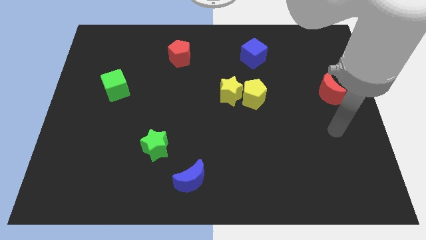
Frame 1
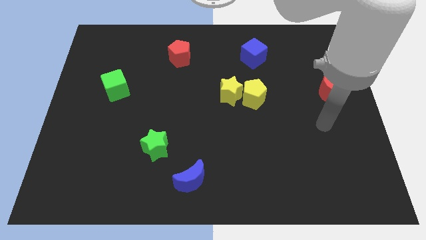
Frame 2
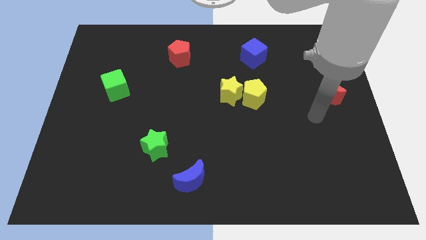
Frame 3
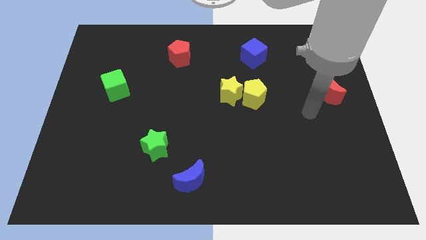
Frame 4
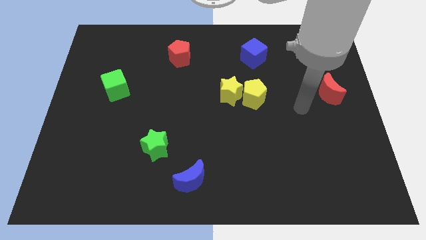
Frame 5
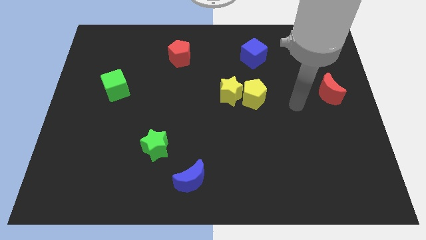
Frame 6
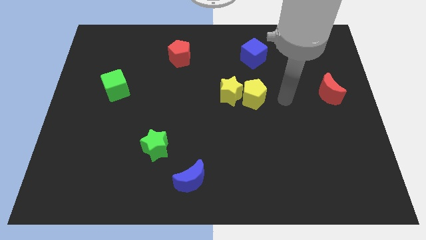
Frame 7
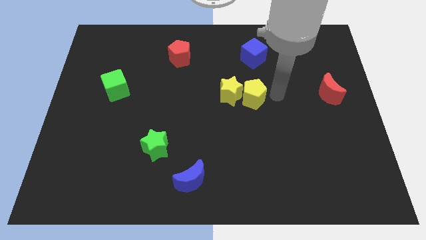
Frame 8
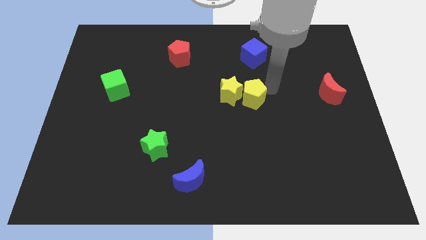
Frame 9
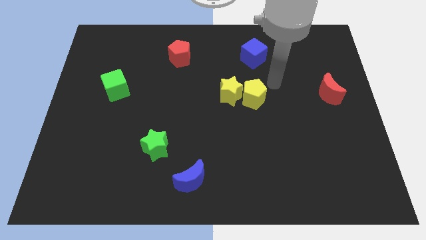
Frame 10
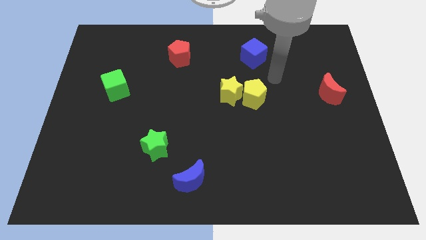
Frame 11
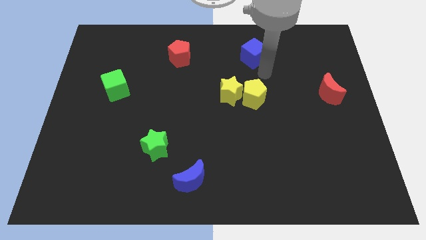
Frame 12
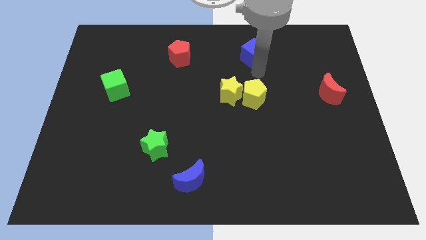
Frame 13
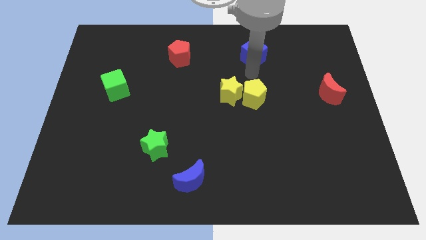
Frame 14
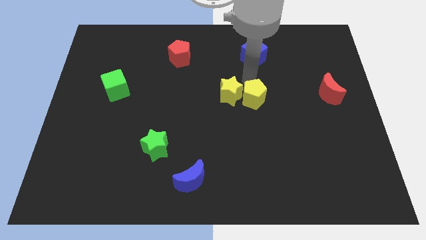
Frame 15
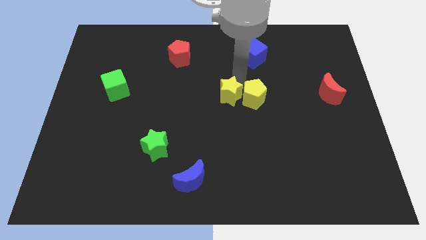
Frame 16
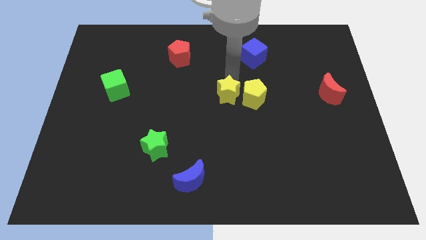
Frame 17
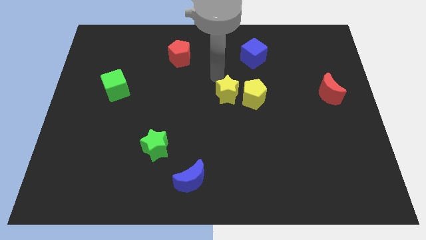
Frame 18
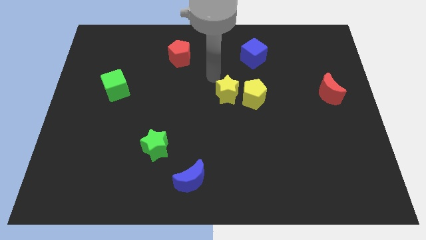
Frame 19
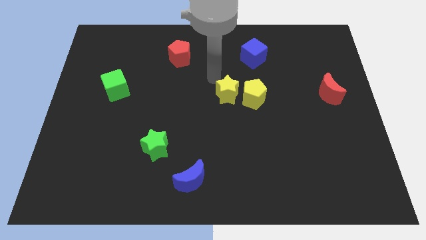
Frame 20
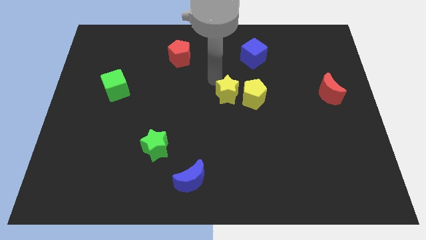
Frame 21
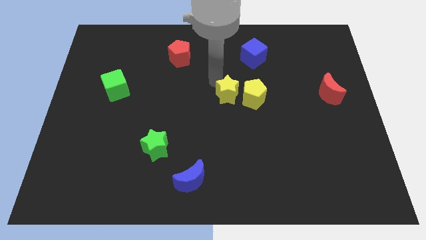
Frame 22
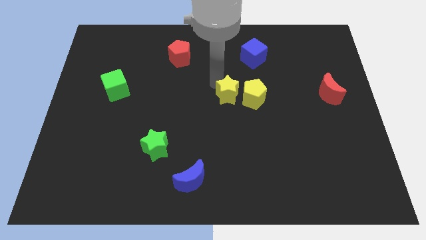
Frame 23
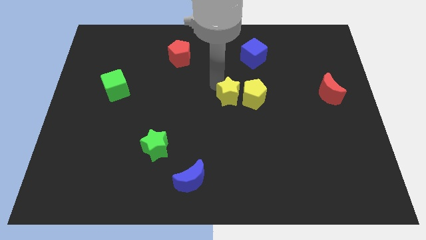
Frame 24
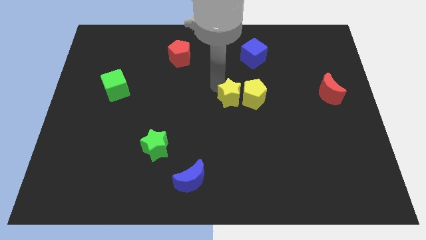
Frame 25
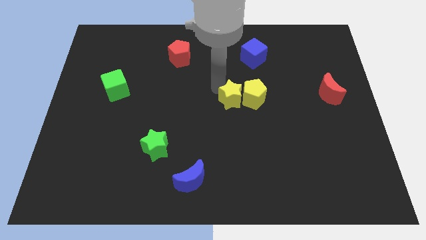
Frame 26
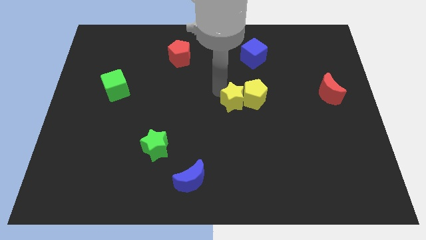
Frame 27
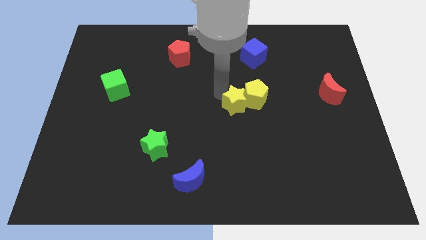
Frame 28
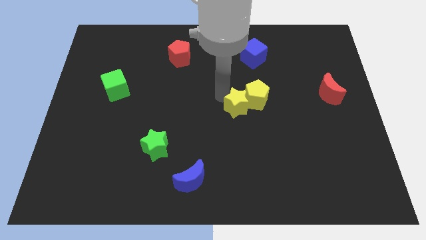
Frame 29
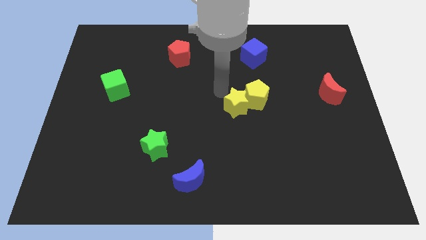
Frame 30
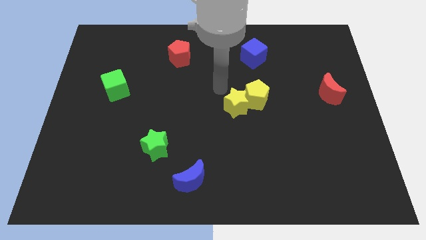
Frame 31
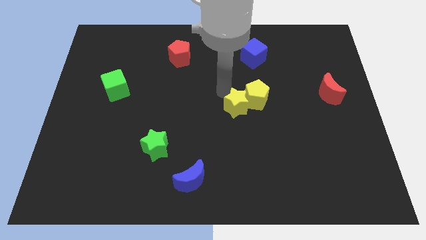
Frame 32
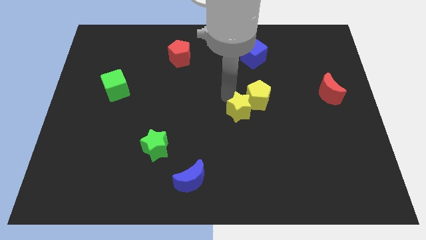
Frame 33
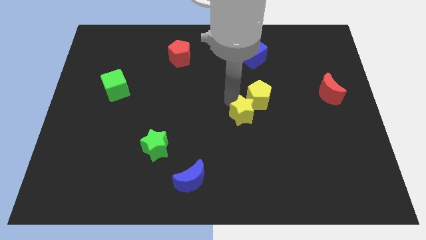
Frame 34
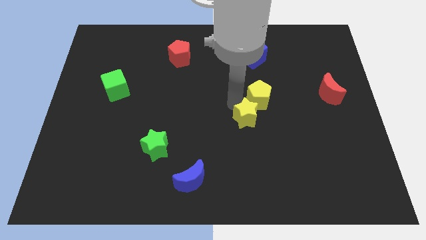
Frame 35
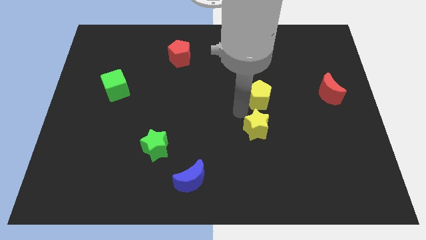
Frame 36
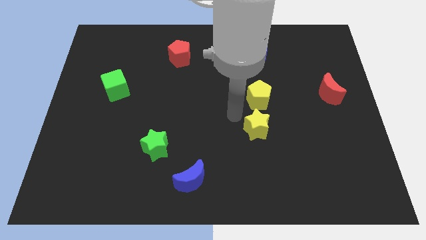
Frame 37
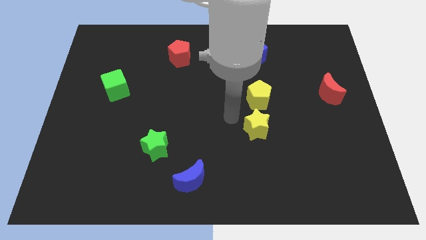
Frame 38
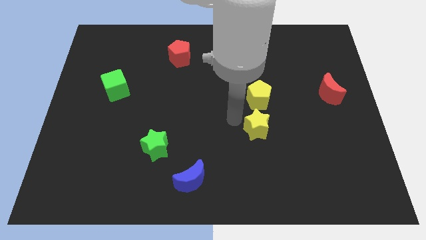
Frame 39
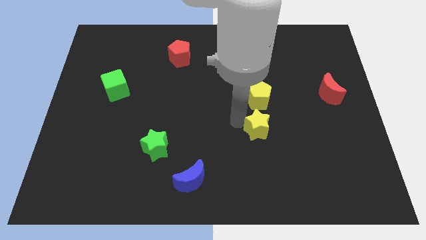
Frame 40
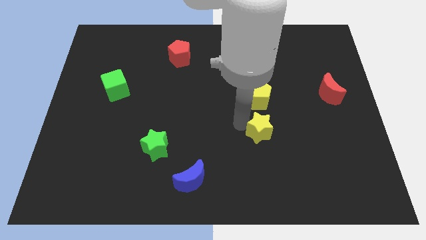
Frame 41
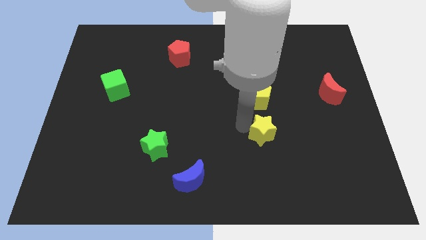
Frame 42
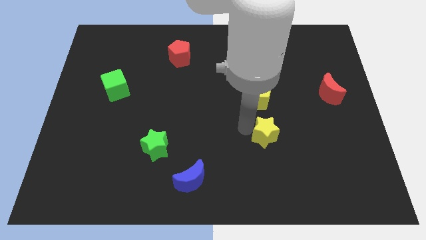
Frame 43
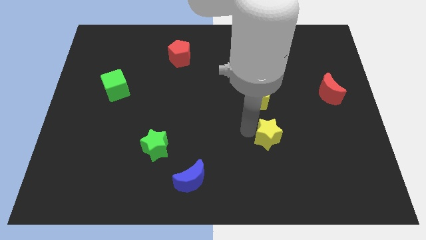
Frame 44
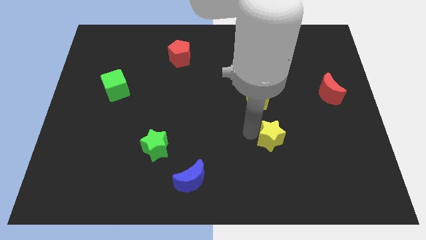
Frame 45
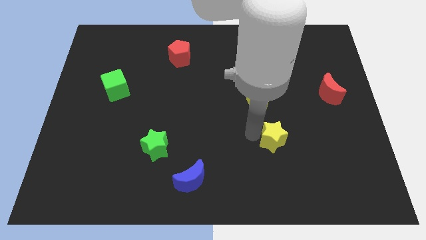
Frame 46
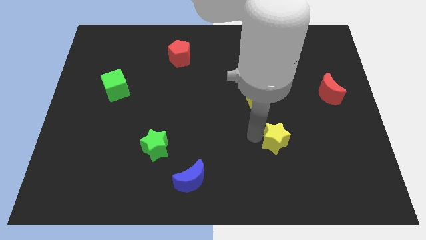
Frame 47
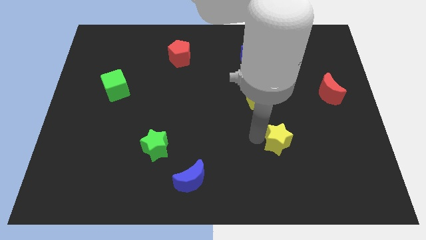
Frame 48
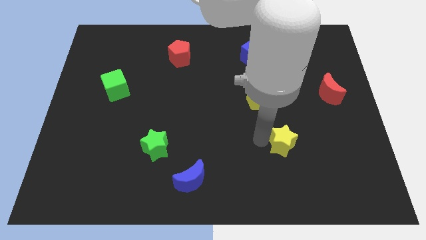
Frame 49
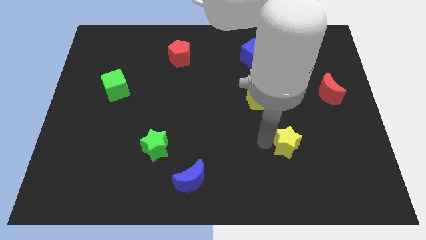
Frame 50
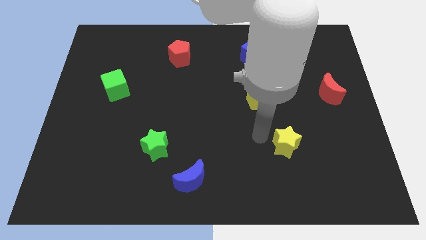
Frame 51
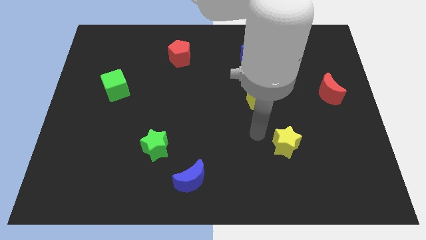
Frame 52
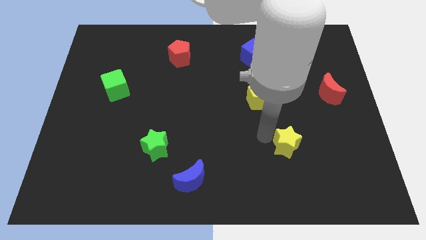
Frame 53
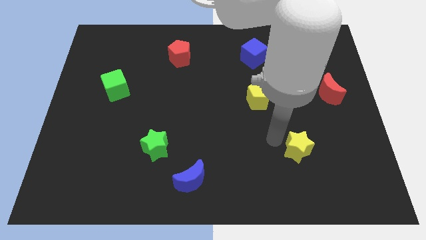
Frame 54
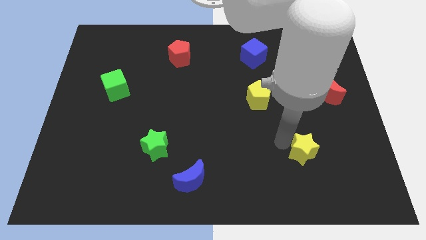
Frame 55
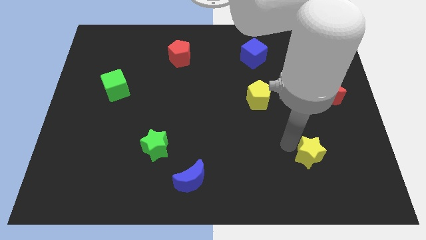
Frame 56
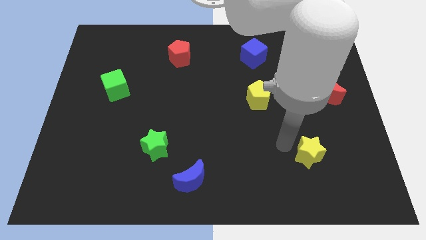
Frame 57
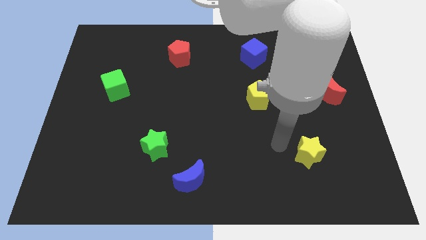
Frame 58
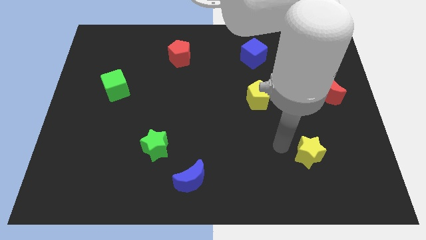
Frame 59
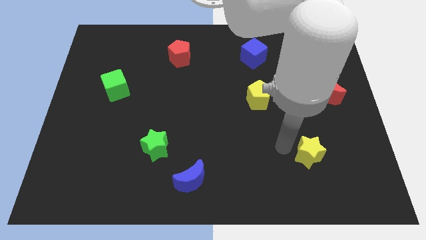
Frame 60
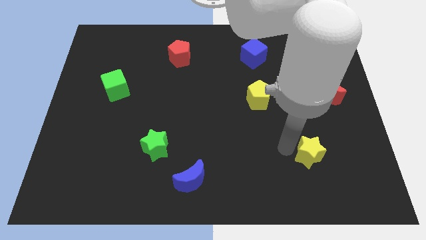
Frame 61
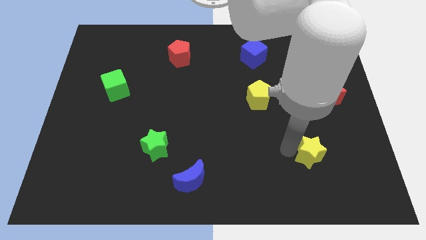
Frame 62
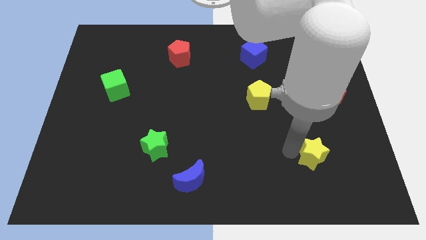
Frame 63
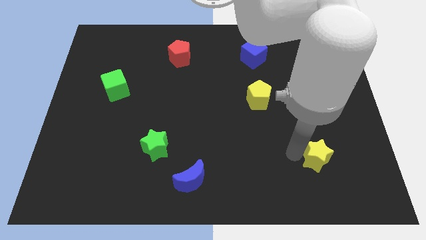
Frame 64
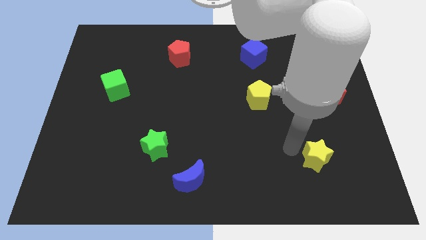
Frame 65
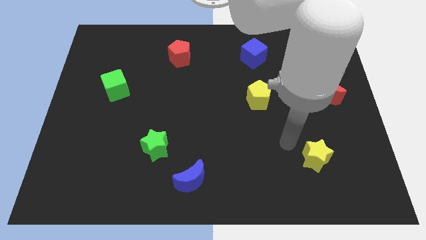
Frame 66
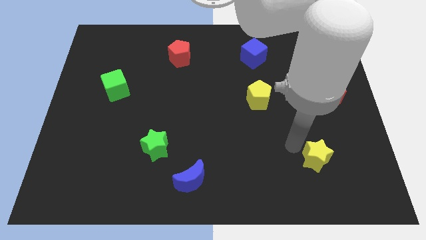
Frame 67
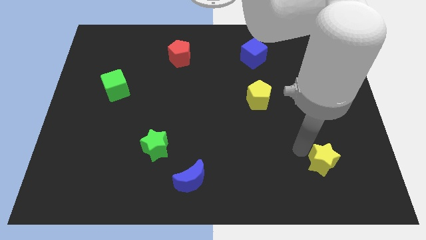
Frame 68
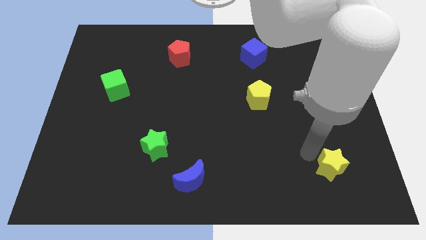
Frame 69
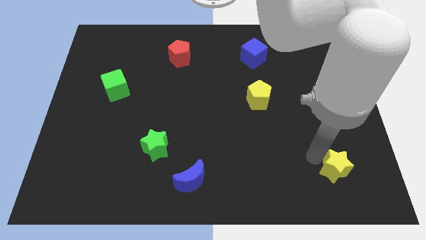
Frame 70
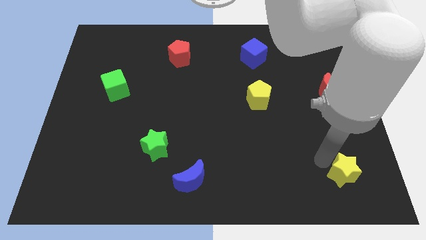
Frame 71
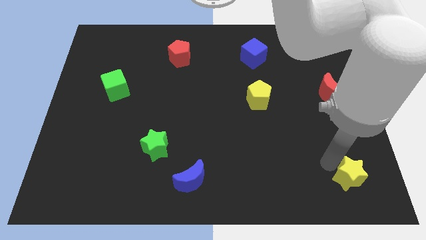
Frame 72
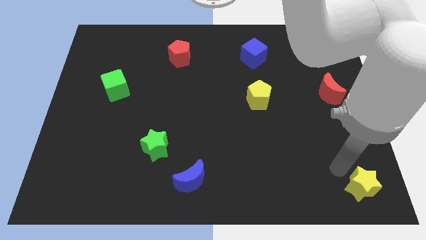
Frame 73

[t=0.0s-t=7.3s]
put the yellow star to the bottom right
